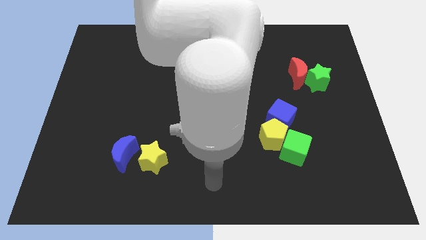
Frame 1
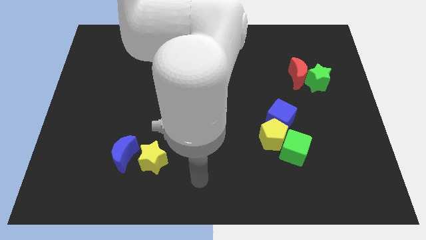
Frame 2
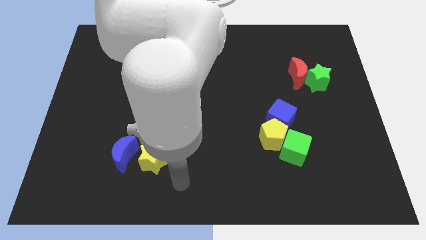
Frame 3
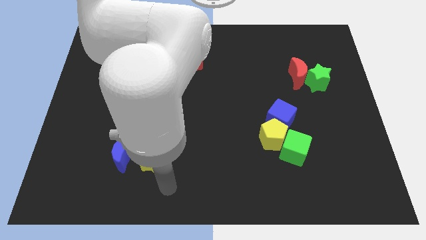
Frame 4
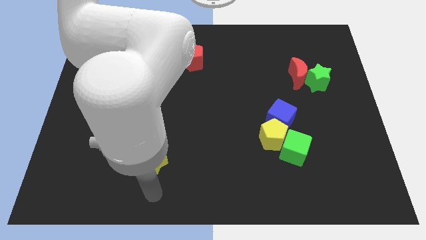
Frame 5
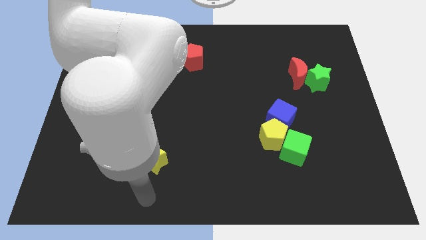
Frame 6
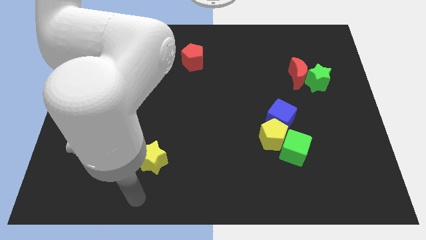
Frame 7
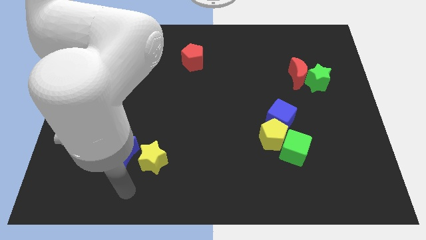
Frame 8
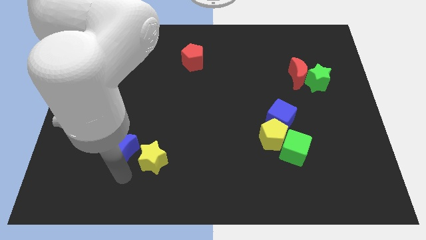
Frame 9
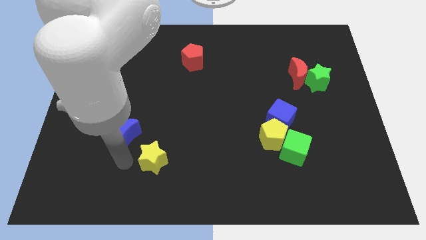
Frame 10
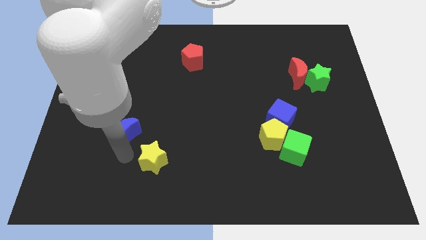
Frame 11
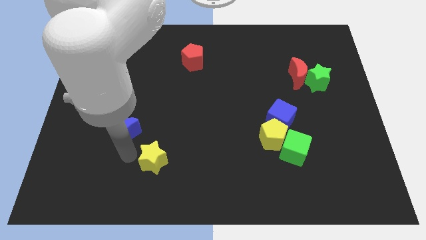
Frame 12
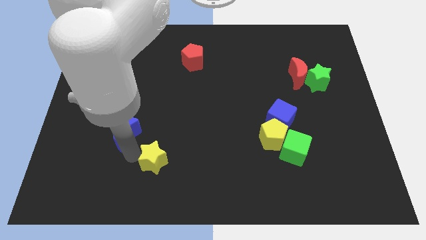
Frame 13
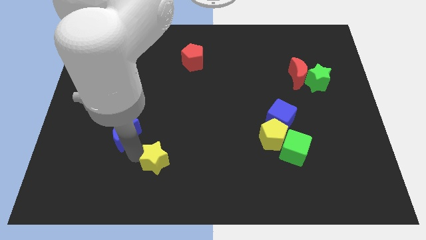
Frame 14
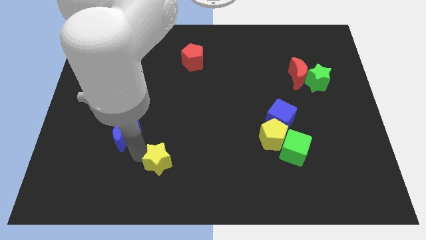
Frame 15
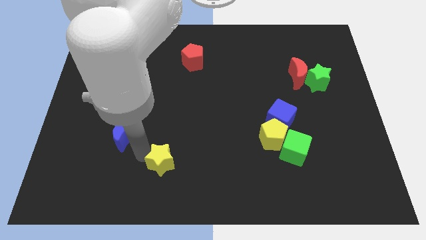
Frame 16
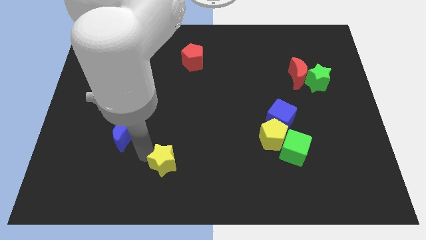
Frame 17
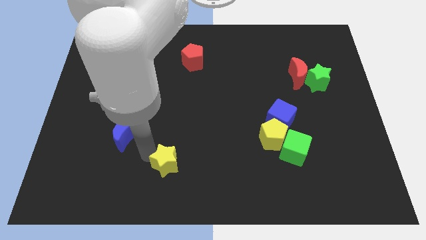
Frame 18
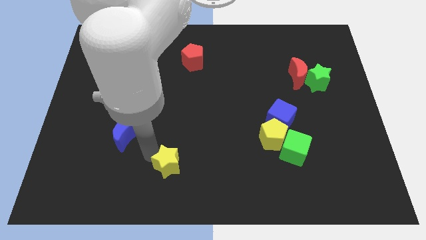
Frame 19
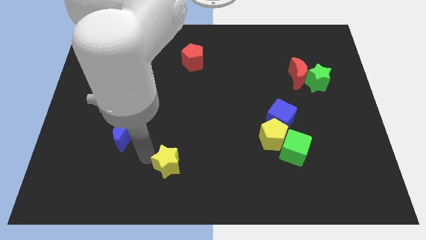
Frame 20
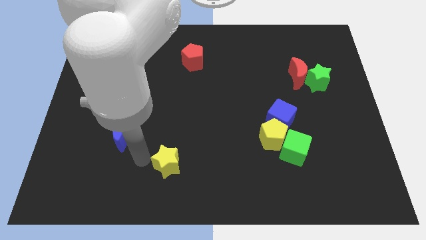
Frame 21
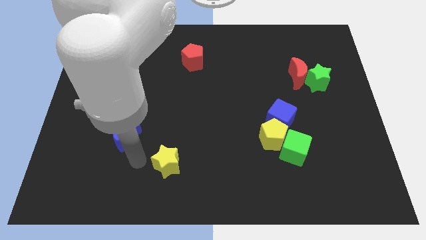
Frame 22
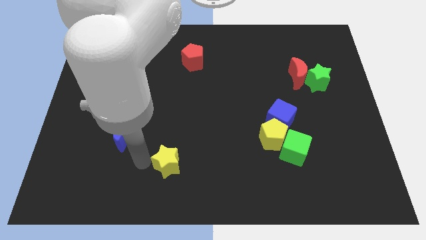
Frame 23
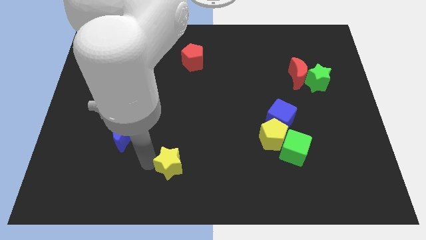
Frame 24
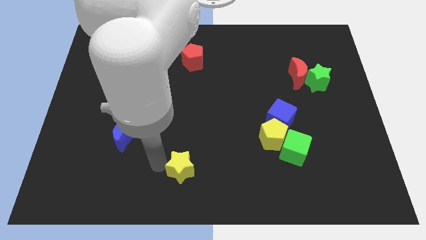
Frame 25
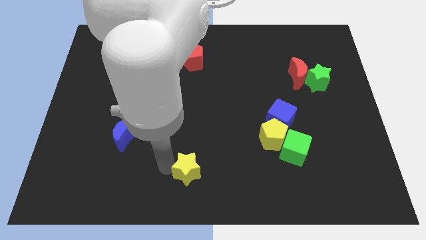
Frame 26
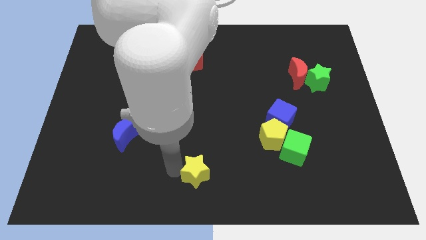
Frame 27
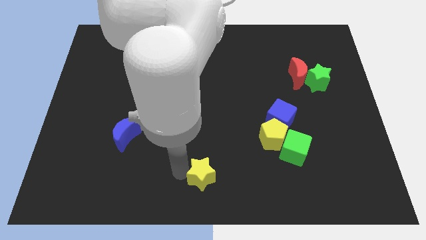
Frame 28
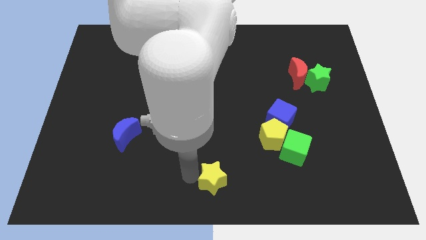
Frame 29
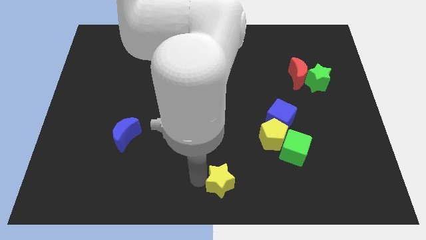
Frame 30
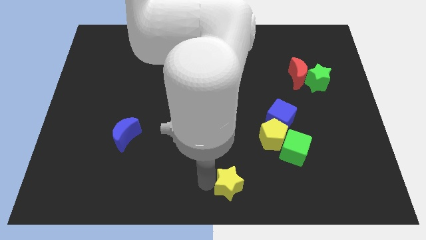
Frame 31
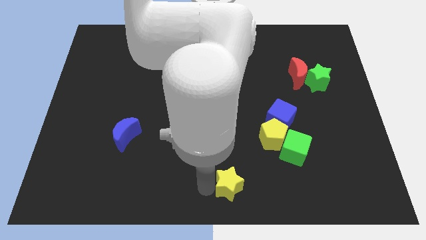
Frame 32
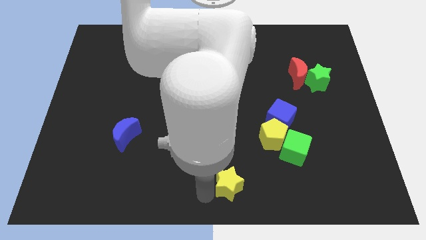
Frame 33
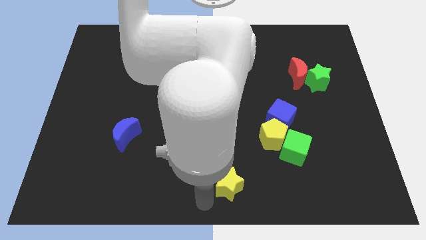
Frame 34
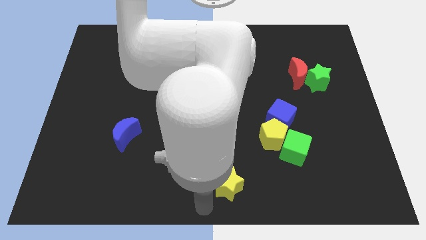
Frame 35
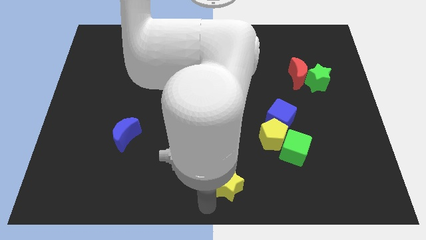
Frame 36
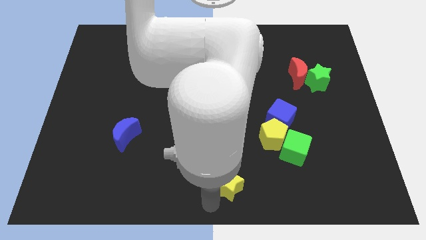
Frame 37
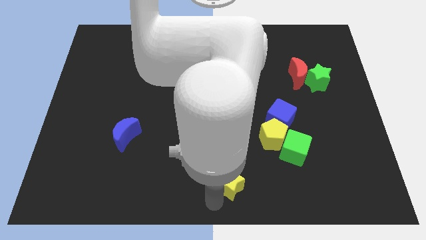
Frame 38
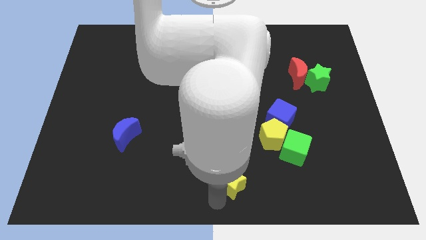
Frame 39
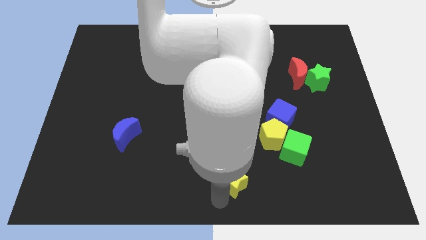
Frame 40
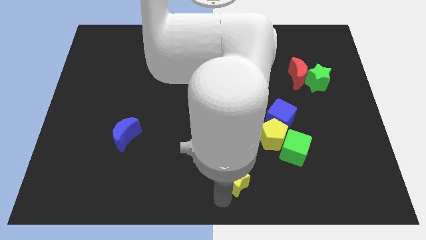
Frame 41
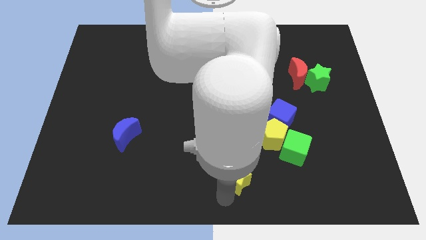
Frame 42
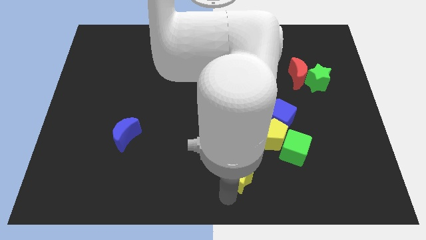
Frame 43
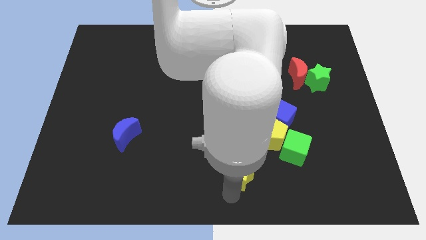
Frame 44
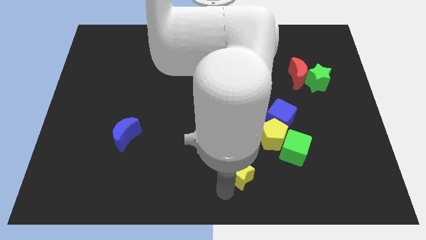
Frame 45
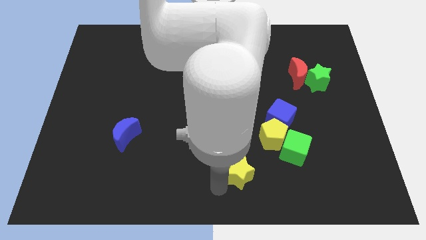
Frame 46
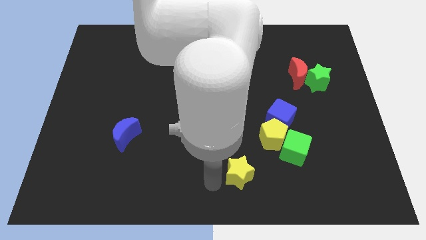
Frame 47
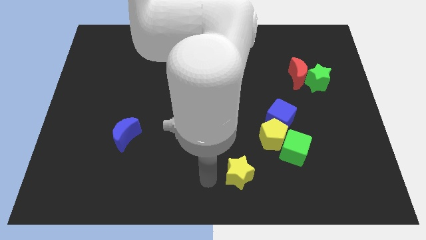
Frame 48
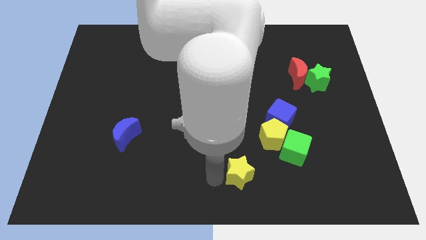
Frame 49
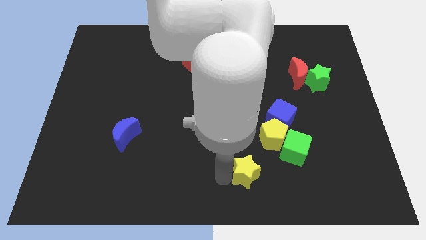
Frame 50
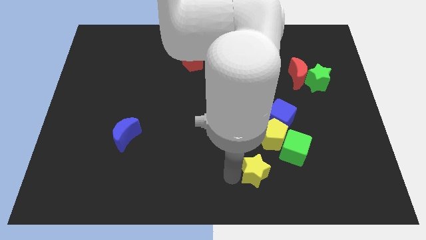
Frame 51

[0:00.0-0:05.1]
move the yellow star to the bottom left side of the green cube

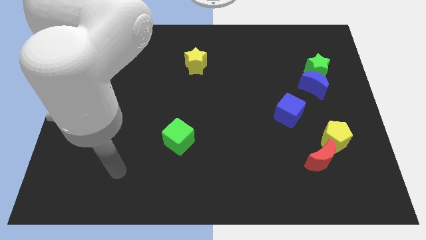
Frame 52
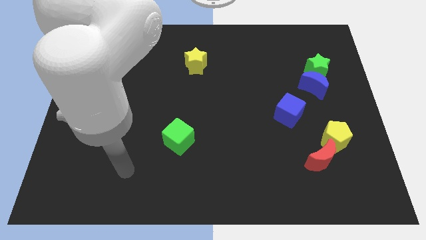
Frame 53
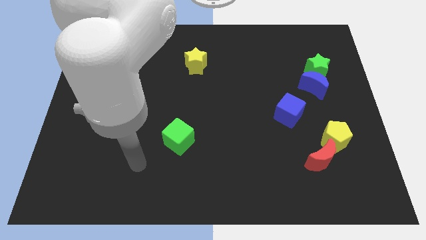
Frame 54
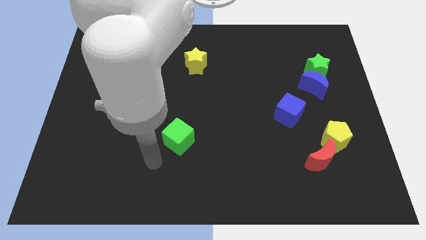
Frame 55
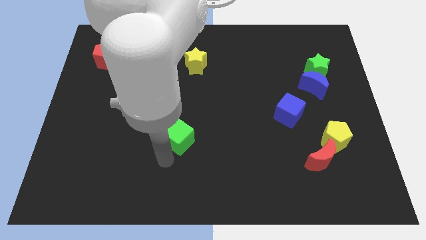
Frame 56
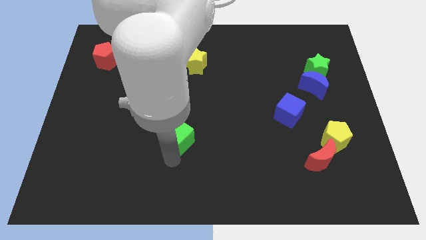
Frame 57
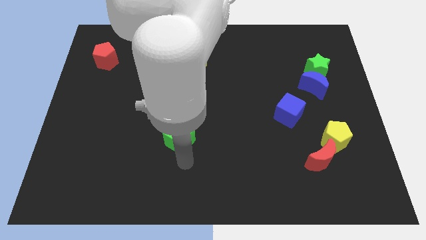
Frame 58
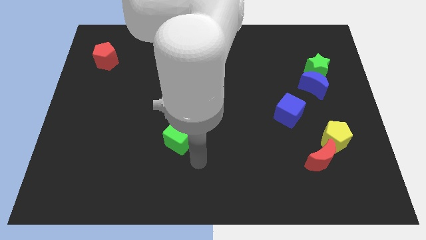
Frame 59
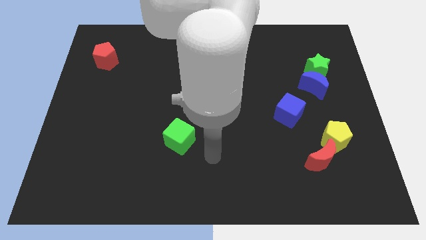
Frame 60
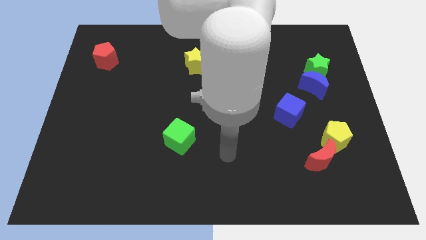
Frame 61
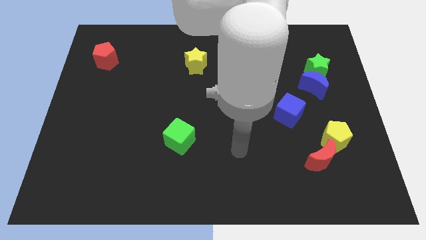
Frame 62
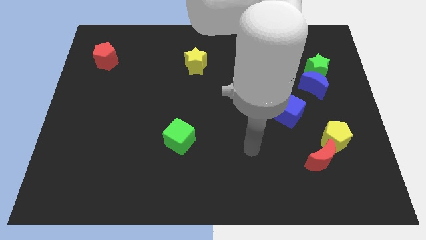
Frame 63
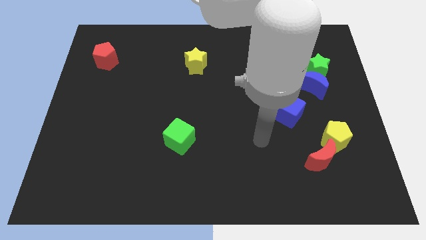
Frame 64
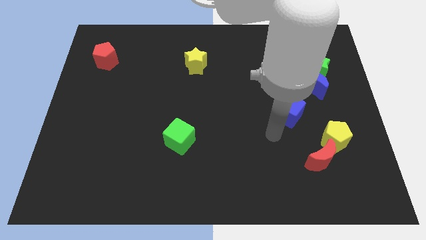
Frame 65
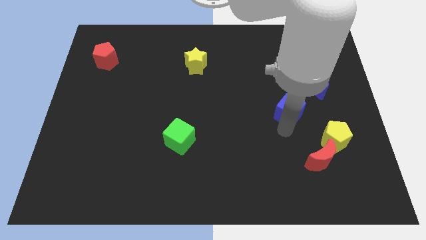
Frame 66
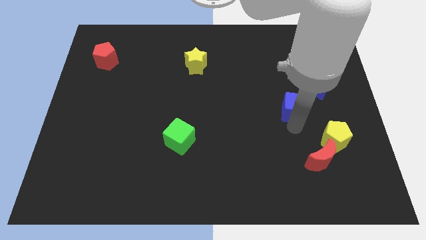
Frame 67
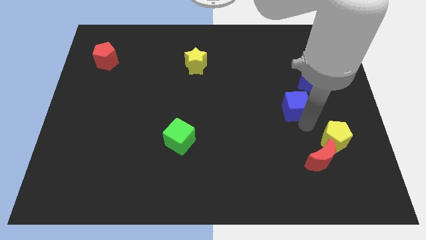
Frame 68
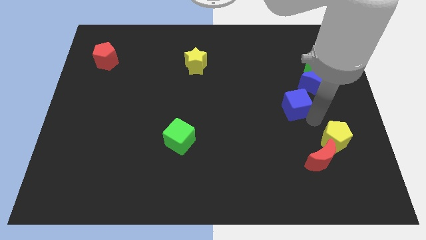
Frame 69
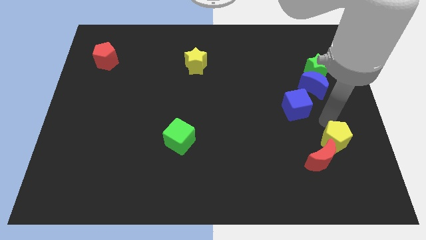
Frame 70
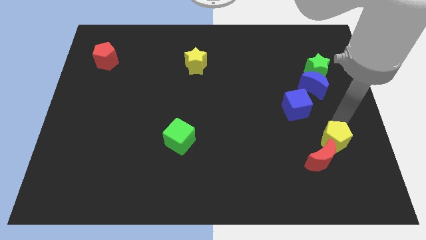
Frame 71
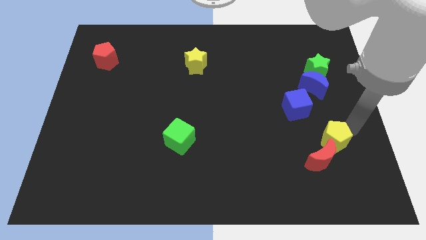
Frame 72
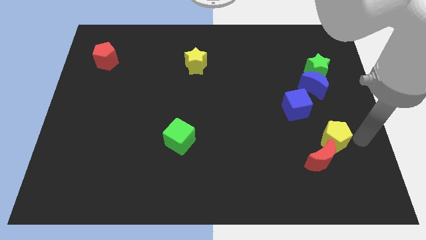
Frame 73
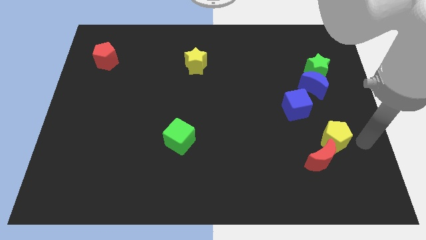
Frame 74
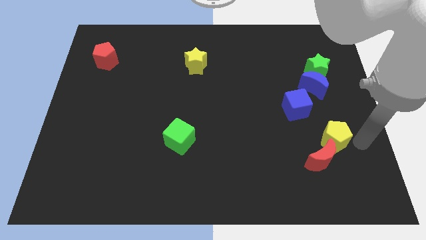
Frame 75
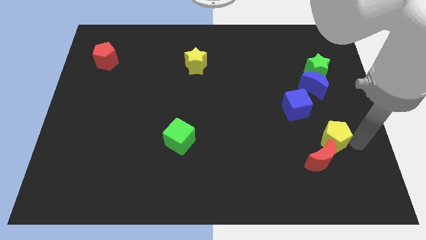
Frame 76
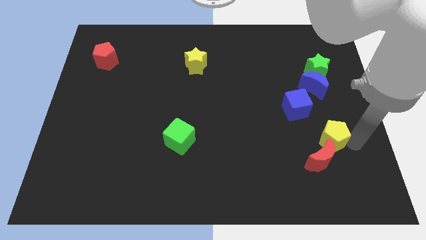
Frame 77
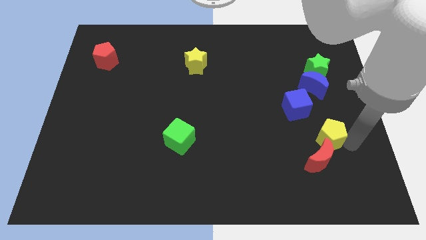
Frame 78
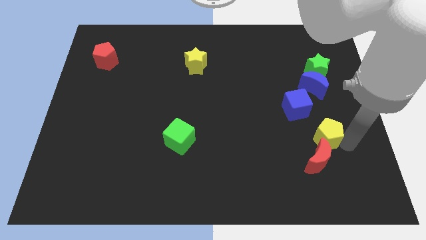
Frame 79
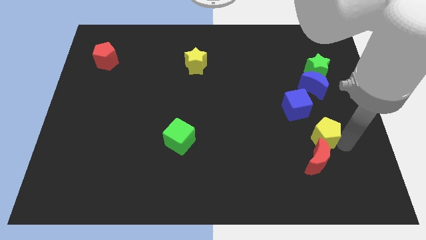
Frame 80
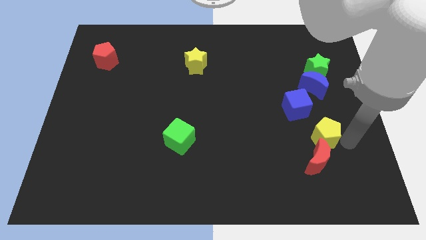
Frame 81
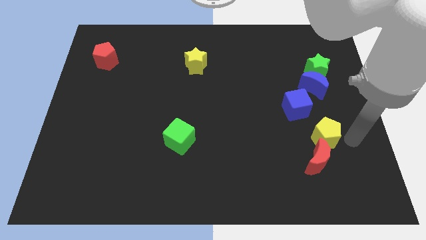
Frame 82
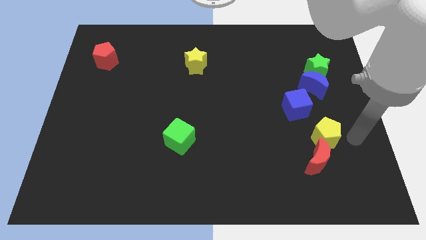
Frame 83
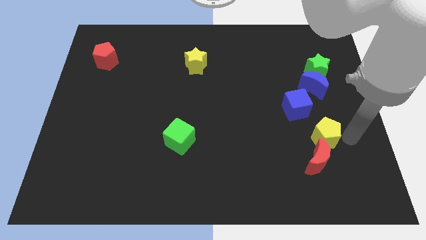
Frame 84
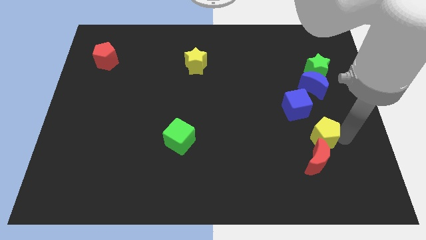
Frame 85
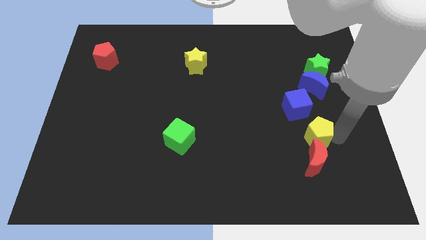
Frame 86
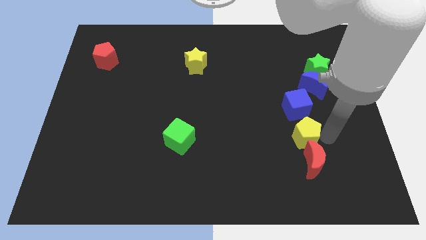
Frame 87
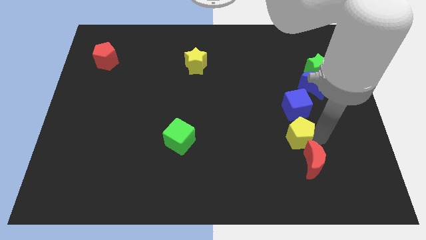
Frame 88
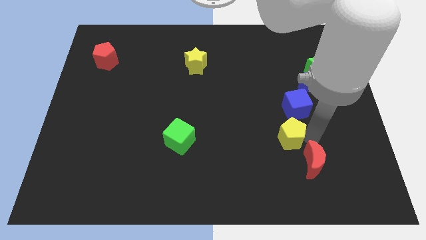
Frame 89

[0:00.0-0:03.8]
push the yellow pentagon to the bottom left of the blue cube
